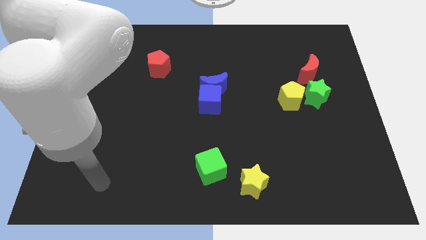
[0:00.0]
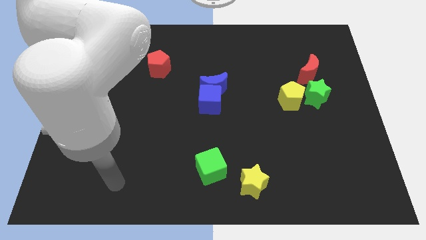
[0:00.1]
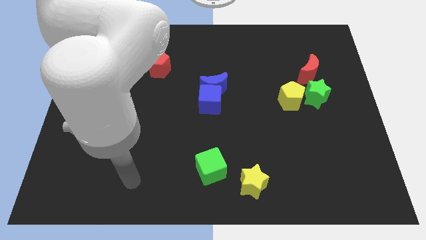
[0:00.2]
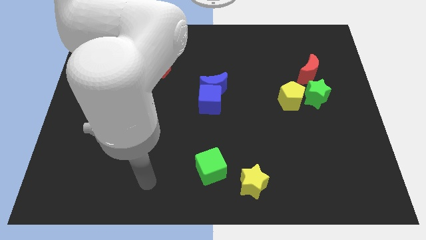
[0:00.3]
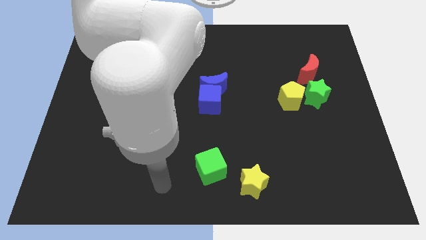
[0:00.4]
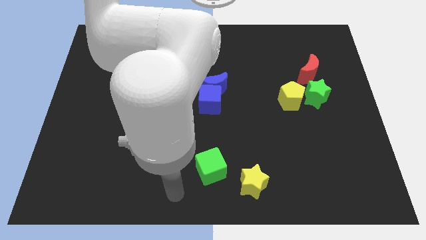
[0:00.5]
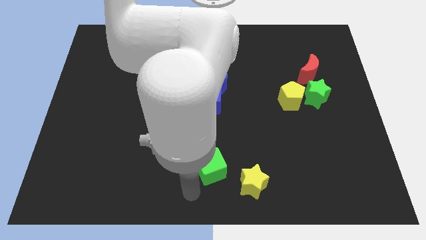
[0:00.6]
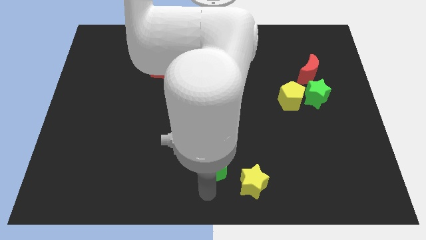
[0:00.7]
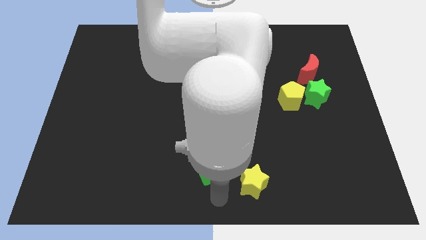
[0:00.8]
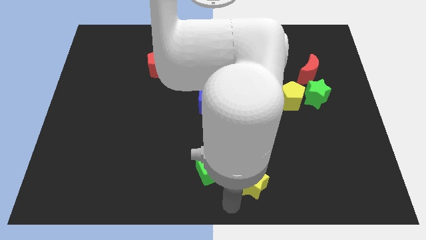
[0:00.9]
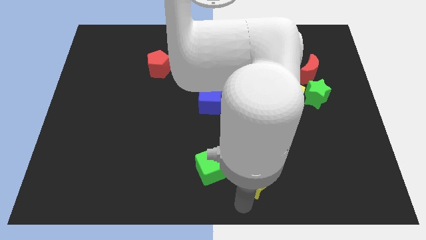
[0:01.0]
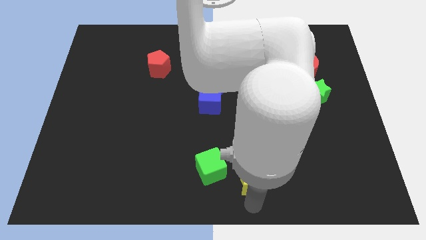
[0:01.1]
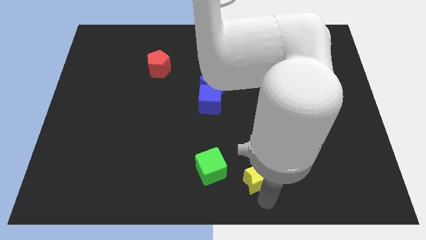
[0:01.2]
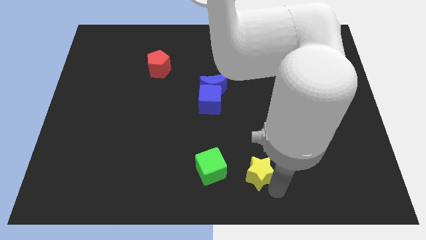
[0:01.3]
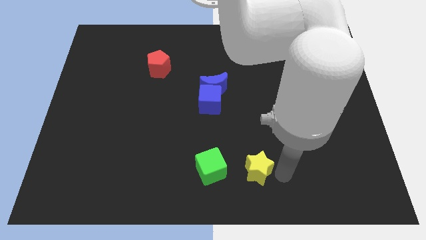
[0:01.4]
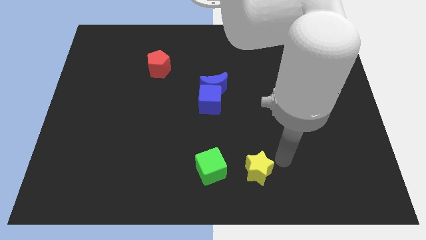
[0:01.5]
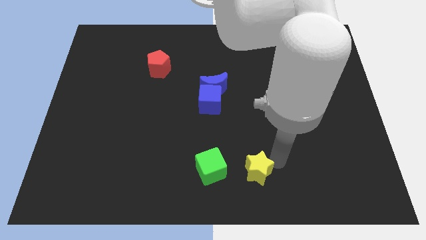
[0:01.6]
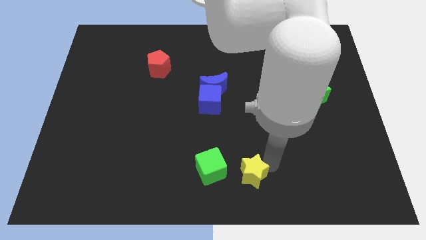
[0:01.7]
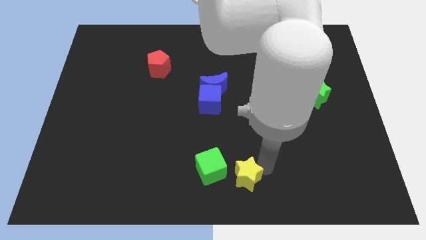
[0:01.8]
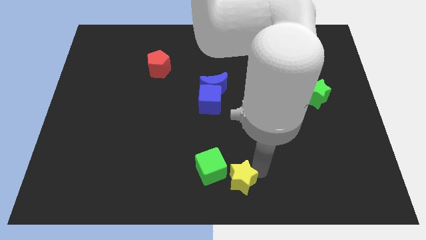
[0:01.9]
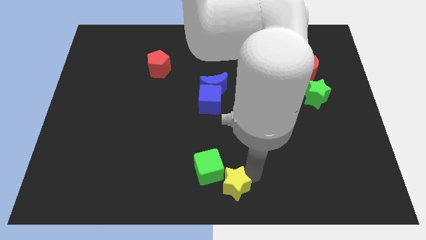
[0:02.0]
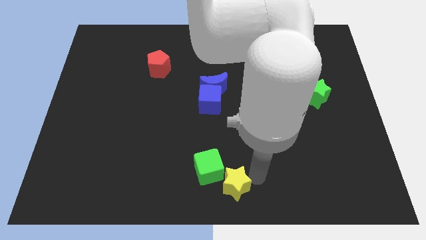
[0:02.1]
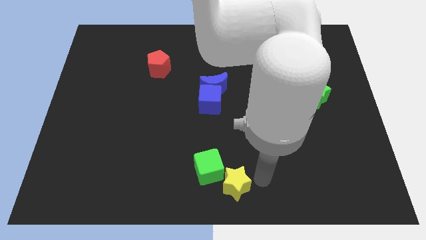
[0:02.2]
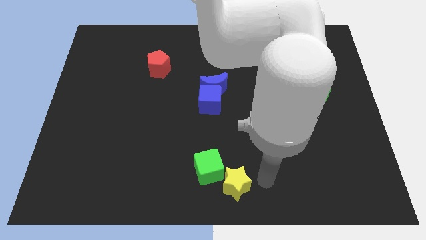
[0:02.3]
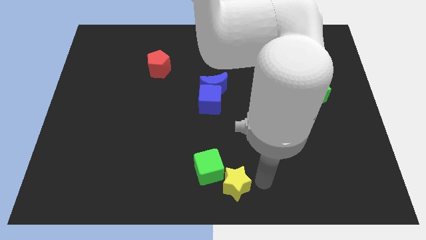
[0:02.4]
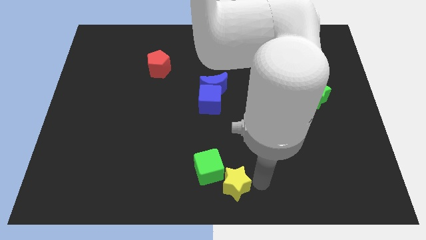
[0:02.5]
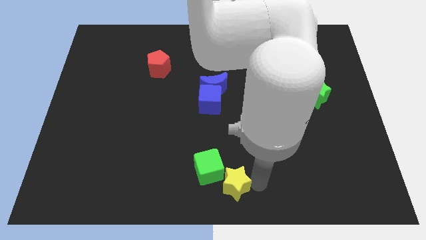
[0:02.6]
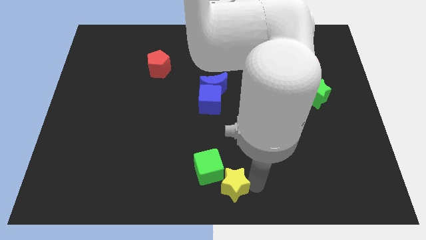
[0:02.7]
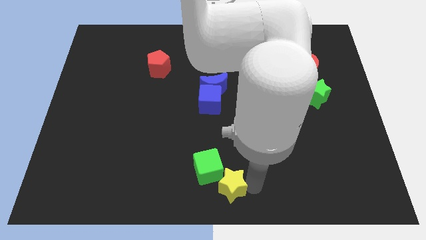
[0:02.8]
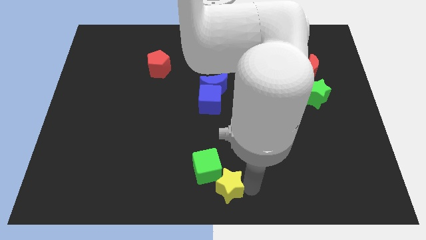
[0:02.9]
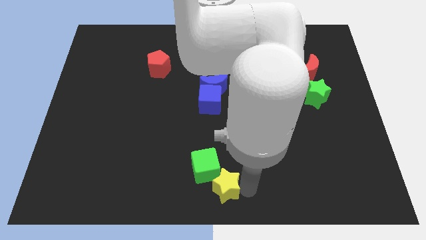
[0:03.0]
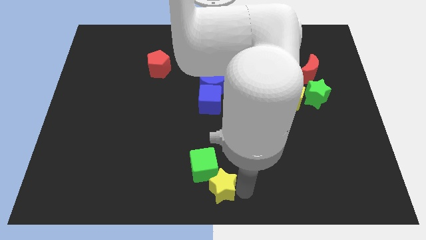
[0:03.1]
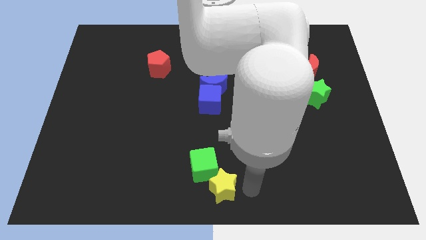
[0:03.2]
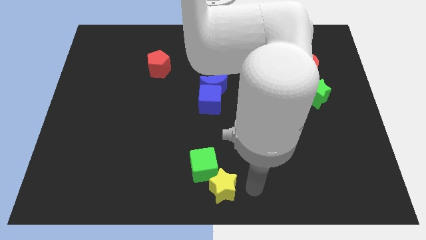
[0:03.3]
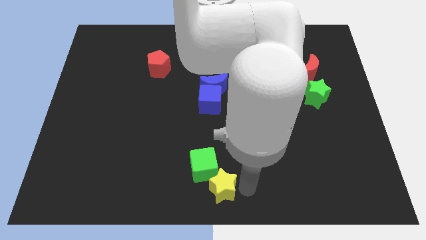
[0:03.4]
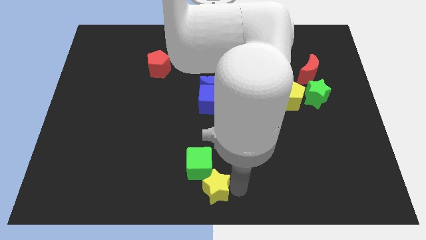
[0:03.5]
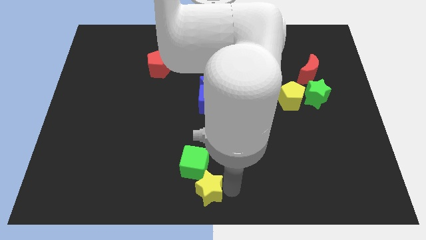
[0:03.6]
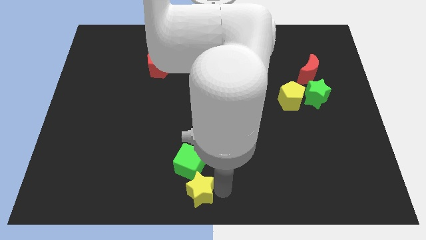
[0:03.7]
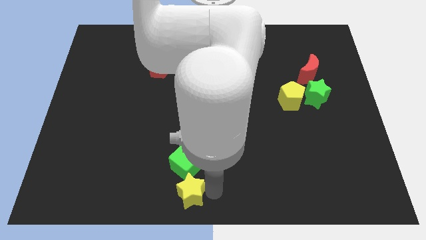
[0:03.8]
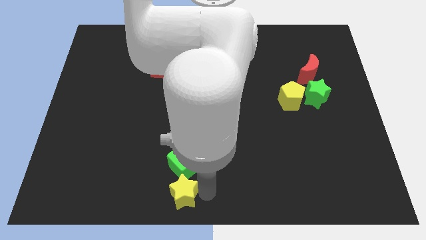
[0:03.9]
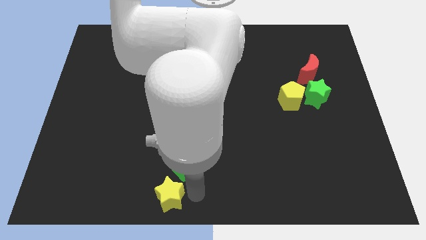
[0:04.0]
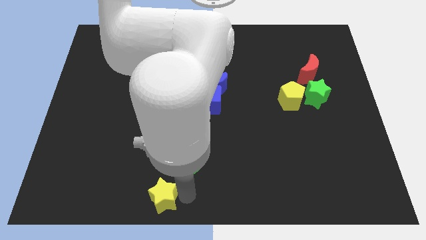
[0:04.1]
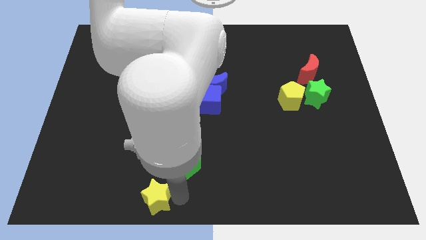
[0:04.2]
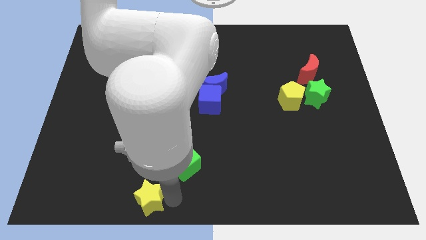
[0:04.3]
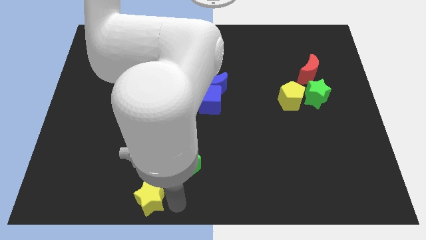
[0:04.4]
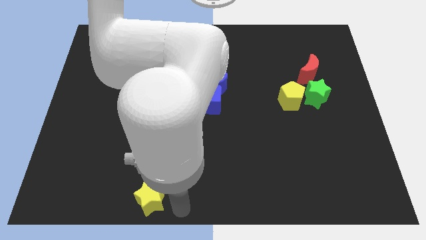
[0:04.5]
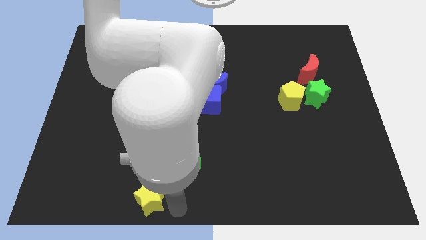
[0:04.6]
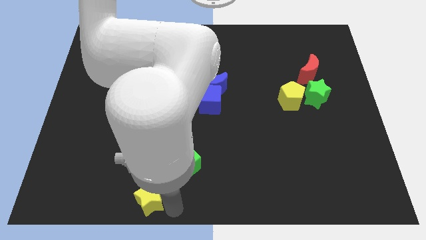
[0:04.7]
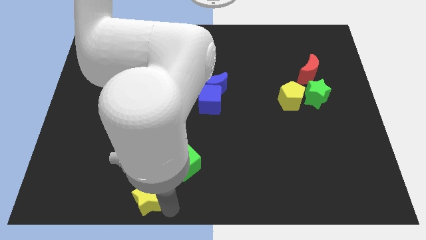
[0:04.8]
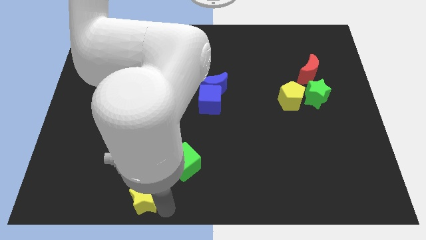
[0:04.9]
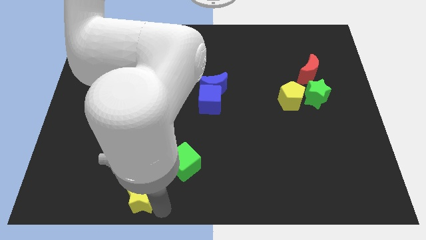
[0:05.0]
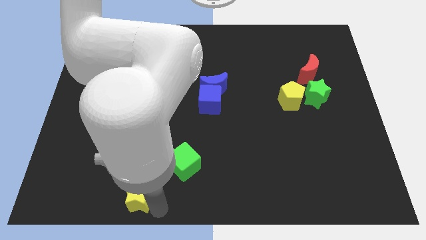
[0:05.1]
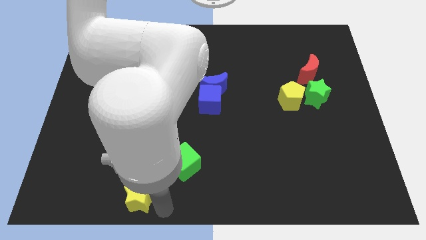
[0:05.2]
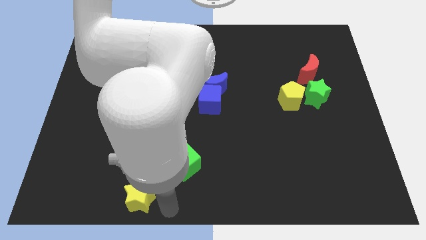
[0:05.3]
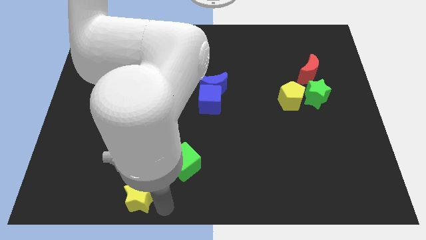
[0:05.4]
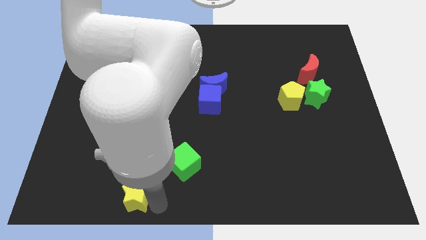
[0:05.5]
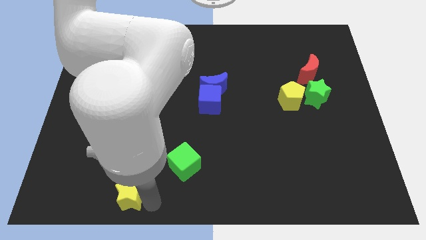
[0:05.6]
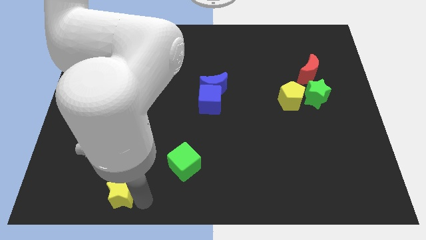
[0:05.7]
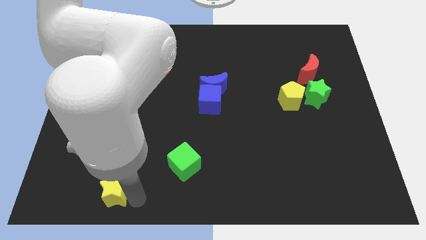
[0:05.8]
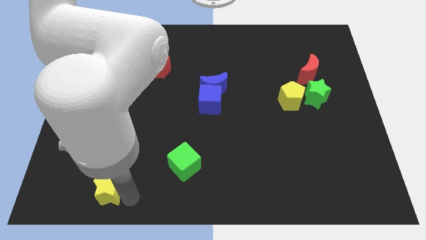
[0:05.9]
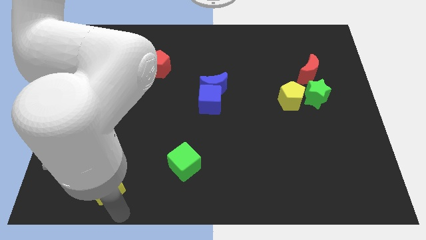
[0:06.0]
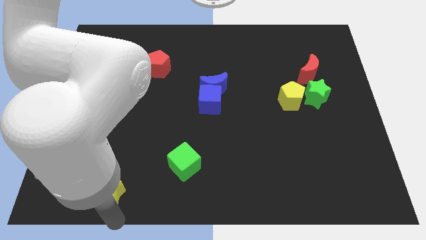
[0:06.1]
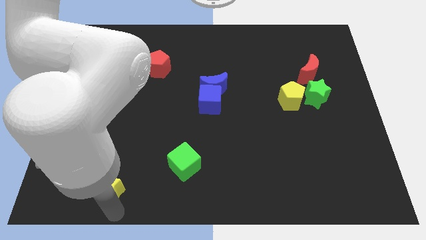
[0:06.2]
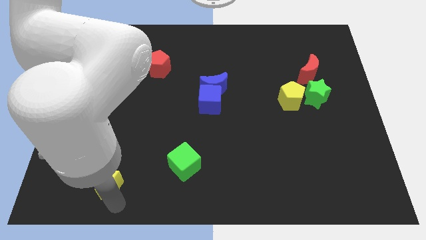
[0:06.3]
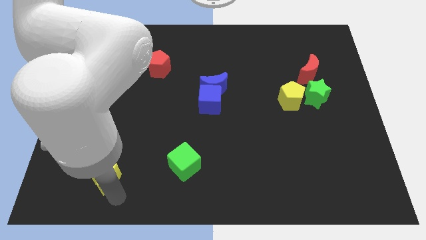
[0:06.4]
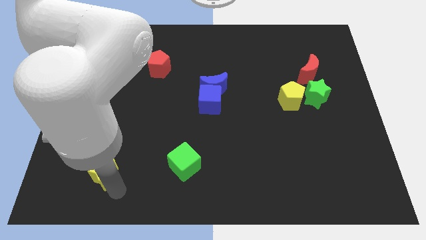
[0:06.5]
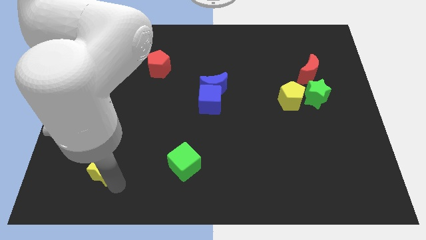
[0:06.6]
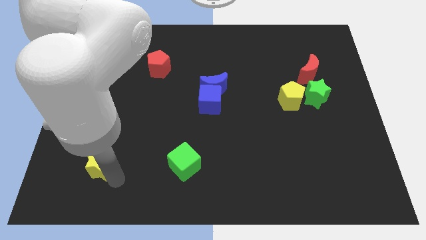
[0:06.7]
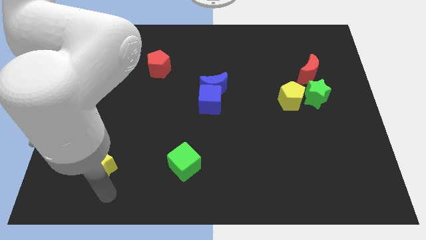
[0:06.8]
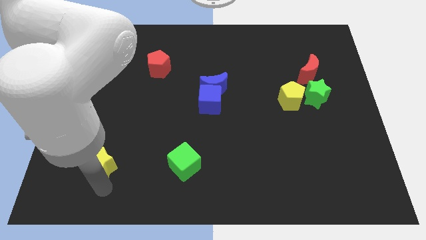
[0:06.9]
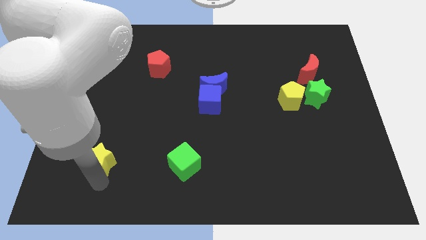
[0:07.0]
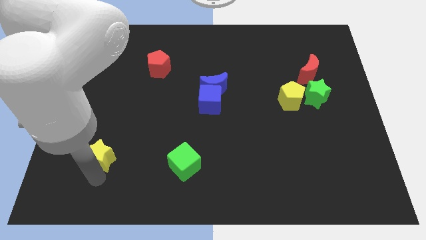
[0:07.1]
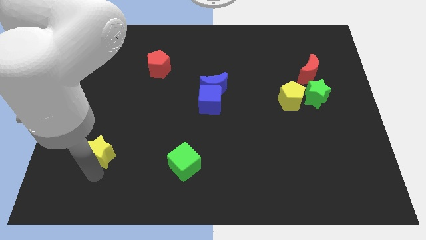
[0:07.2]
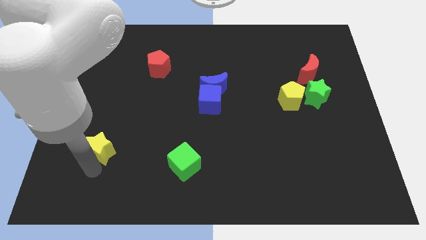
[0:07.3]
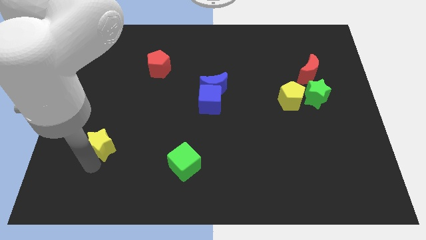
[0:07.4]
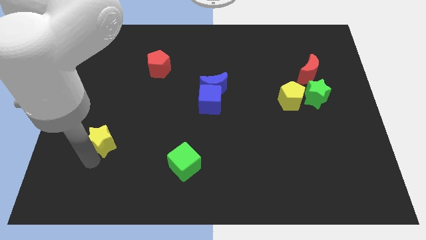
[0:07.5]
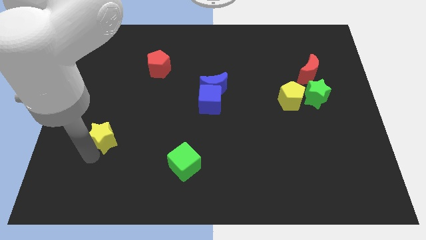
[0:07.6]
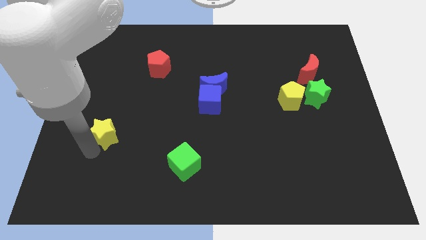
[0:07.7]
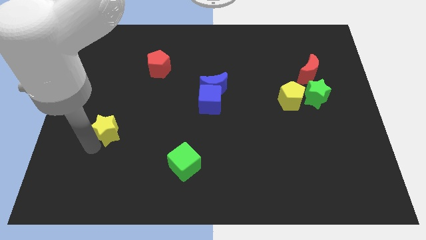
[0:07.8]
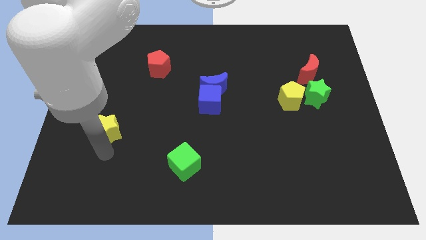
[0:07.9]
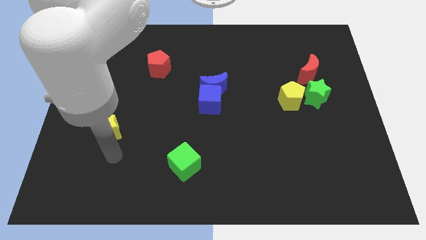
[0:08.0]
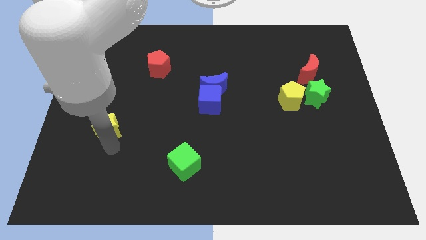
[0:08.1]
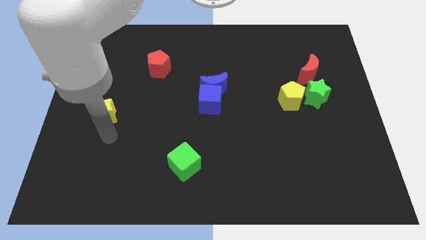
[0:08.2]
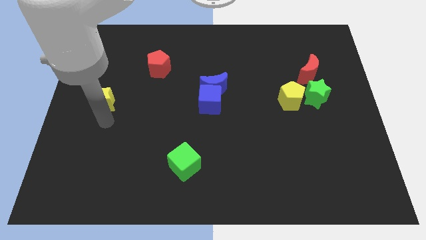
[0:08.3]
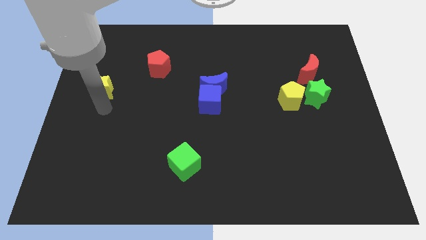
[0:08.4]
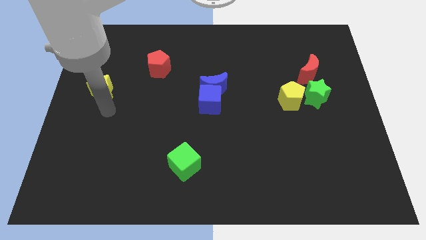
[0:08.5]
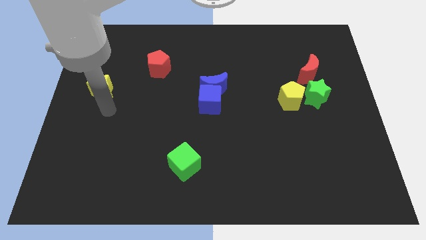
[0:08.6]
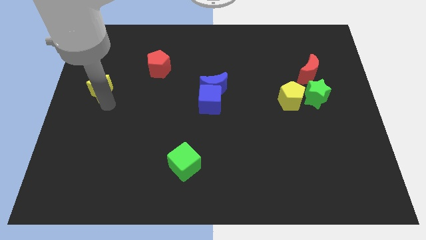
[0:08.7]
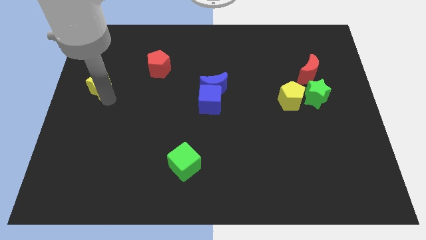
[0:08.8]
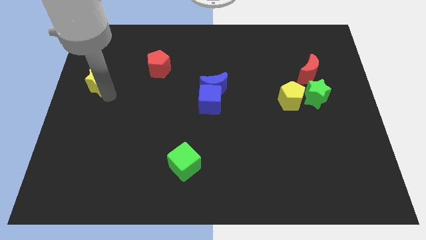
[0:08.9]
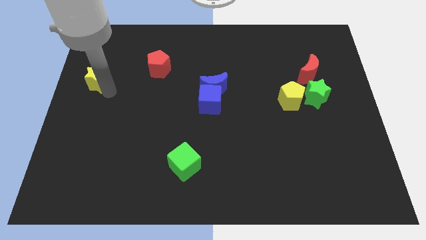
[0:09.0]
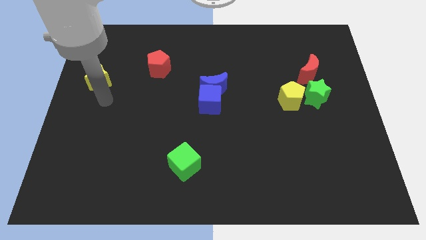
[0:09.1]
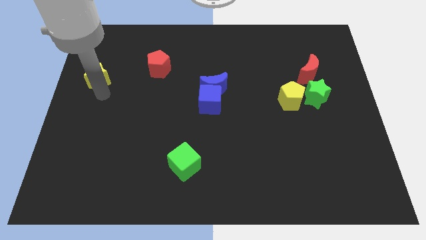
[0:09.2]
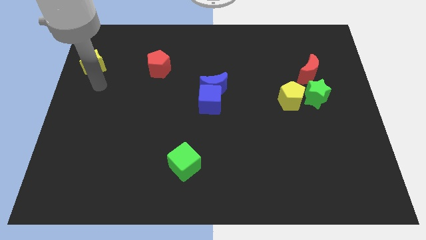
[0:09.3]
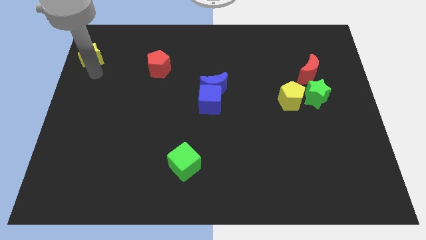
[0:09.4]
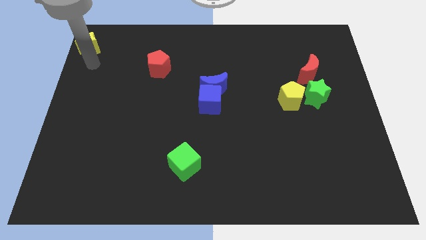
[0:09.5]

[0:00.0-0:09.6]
move the yellow star to the top left
